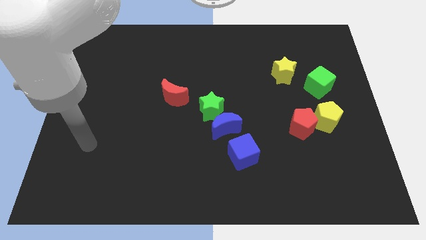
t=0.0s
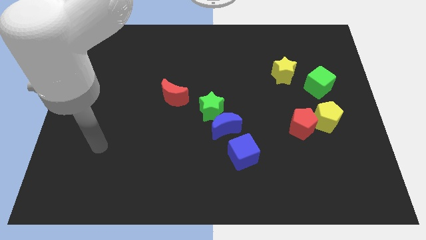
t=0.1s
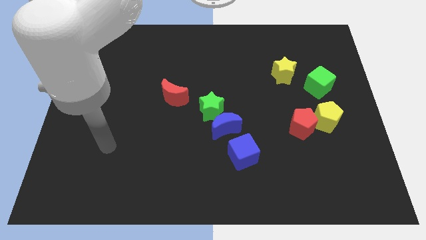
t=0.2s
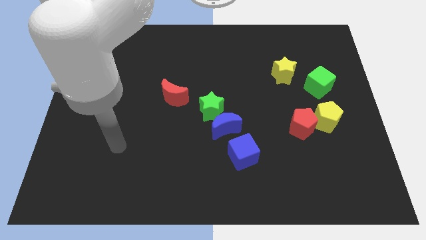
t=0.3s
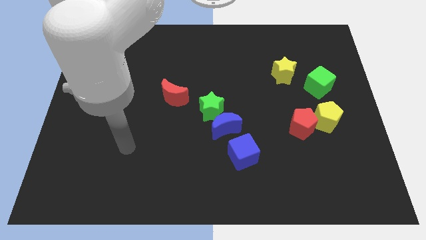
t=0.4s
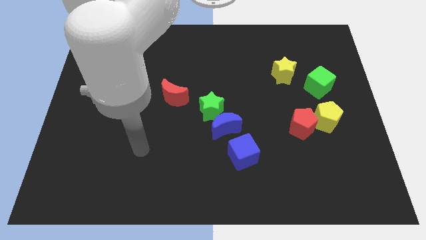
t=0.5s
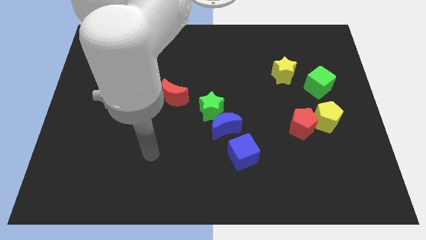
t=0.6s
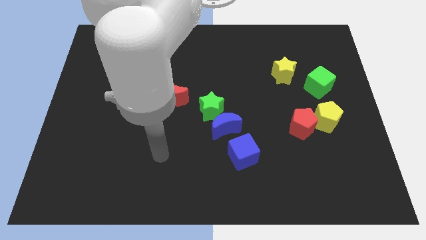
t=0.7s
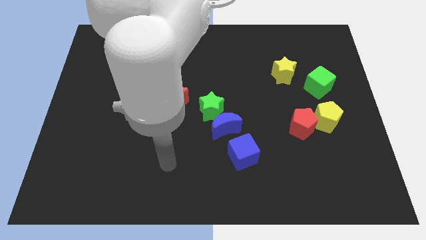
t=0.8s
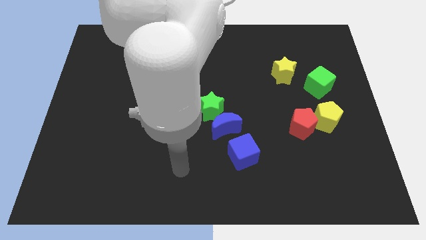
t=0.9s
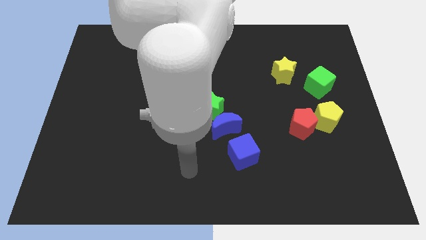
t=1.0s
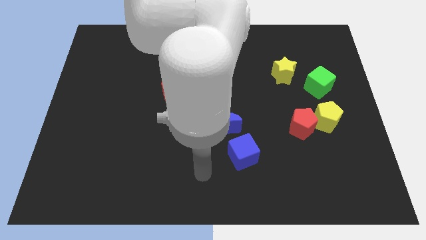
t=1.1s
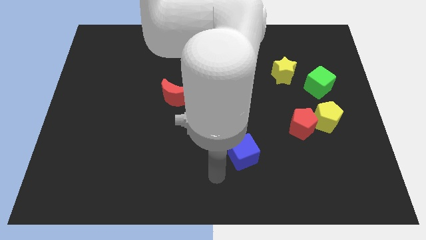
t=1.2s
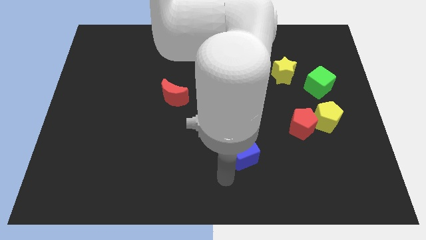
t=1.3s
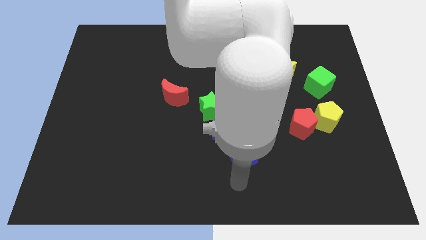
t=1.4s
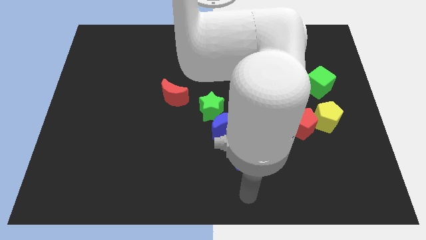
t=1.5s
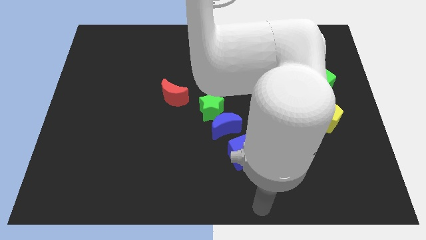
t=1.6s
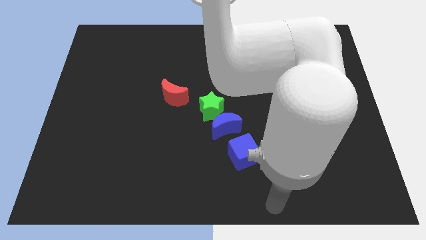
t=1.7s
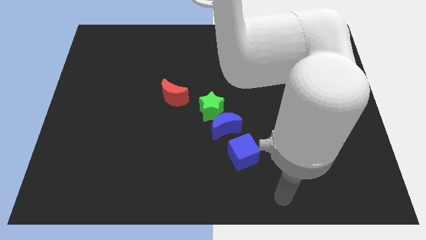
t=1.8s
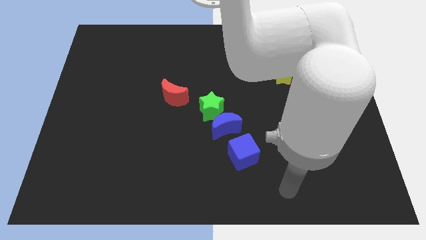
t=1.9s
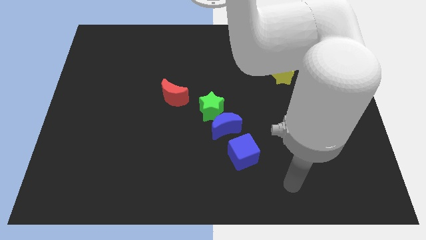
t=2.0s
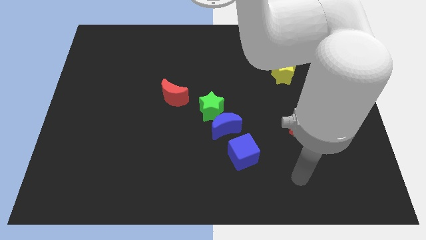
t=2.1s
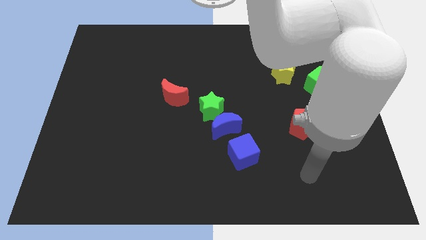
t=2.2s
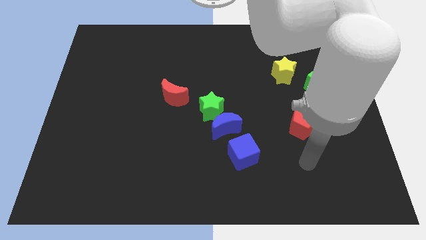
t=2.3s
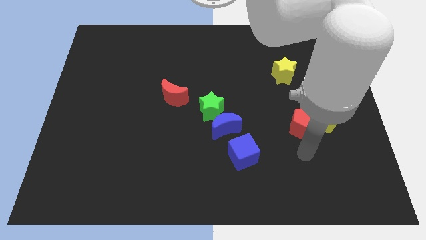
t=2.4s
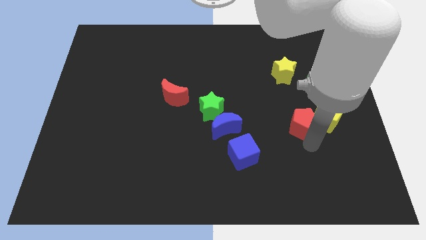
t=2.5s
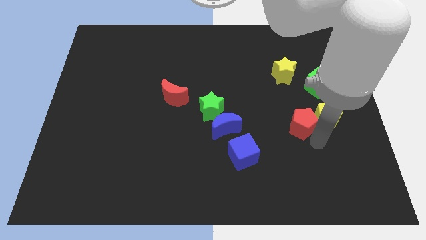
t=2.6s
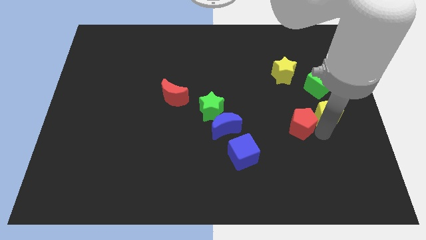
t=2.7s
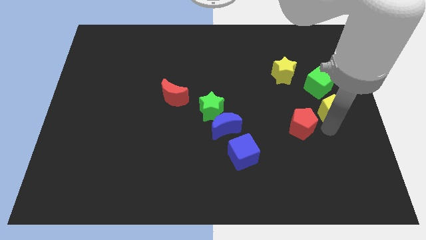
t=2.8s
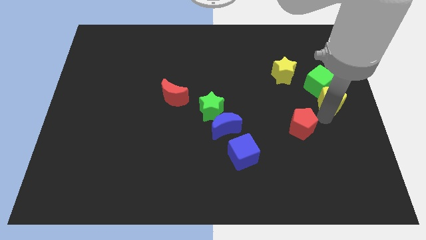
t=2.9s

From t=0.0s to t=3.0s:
separate the red pentagon from the yellow pentagon

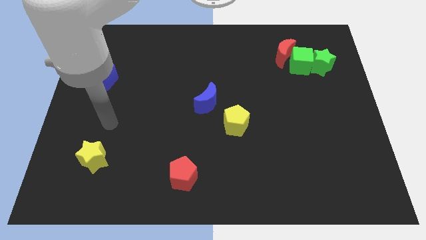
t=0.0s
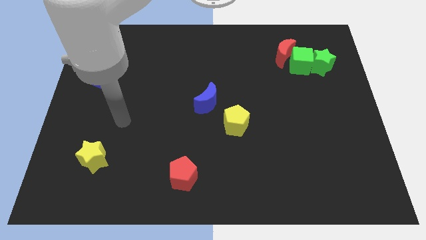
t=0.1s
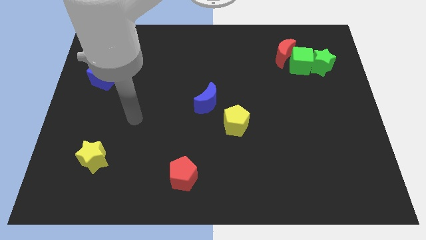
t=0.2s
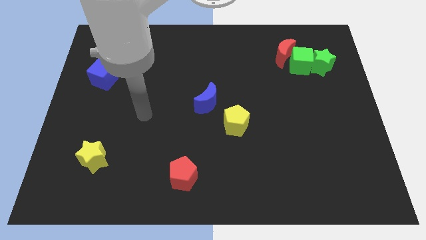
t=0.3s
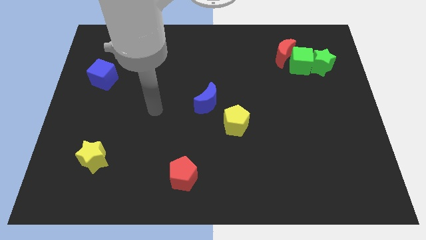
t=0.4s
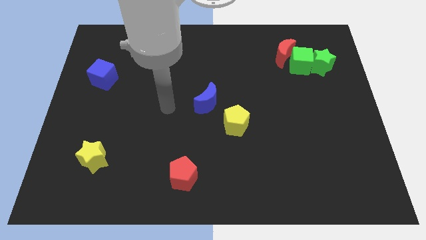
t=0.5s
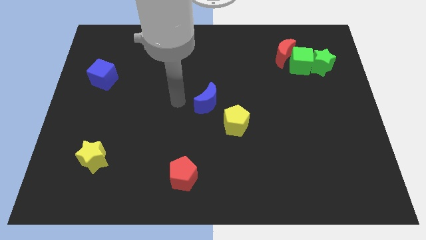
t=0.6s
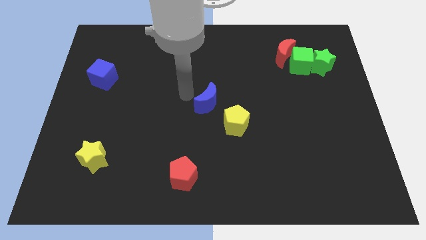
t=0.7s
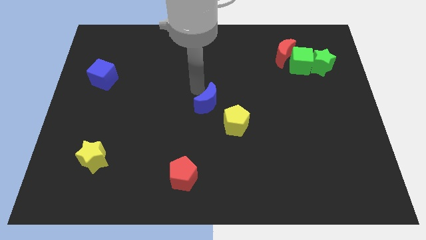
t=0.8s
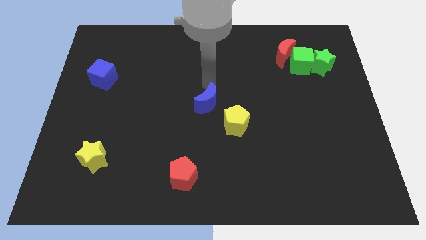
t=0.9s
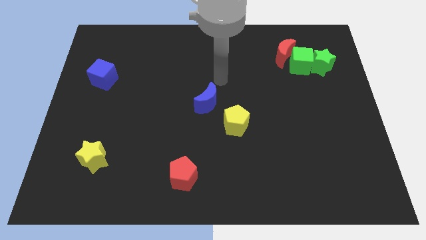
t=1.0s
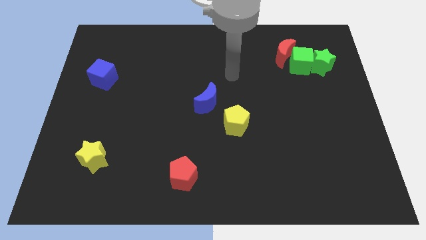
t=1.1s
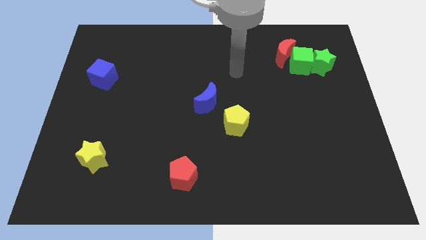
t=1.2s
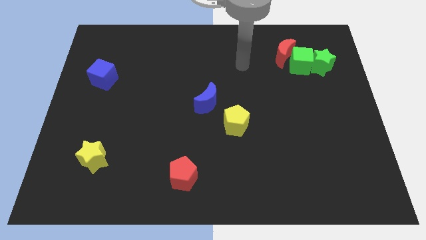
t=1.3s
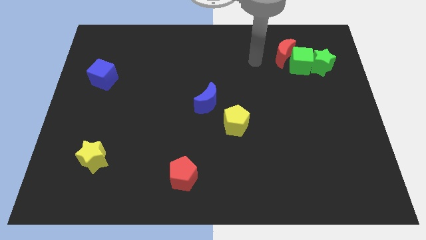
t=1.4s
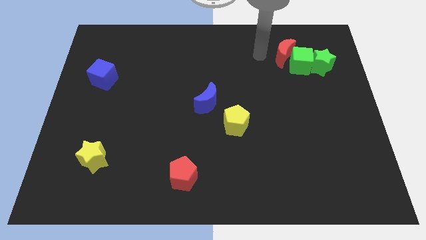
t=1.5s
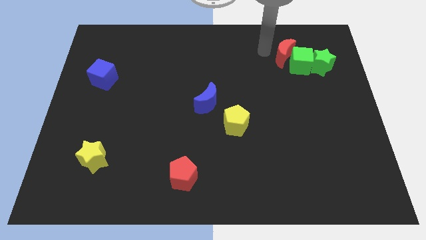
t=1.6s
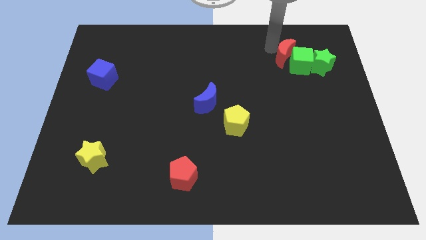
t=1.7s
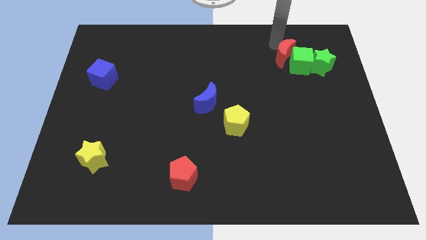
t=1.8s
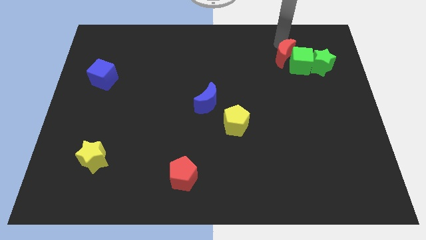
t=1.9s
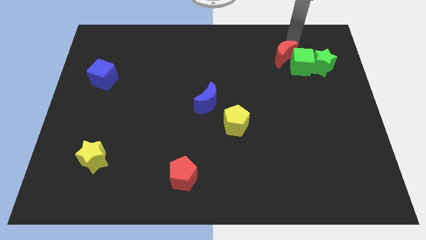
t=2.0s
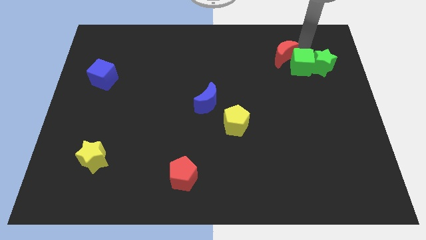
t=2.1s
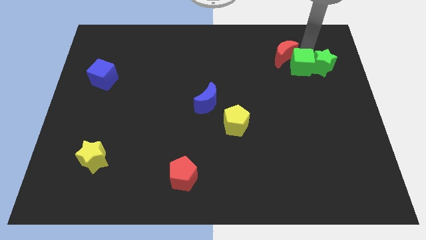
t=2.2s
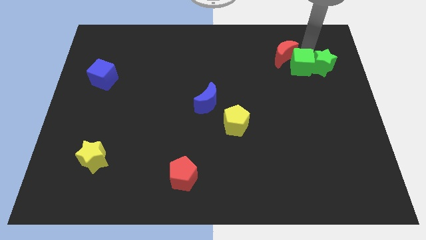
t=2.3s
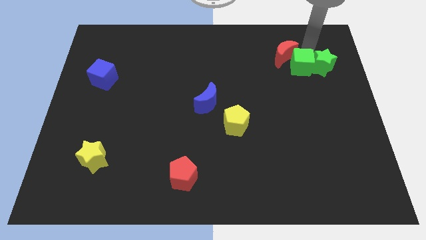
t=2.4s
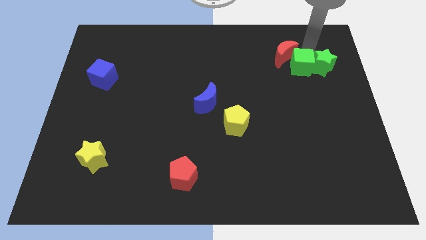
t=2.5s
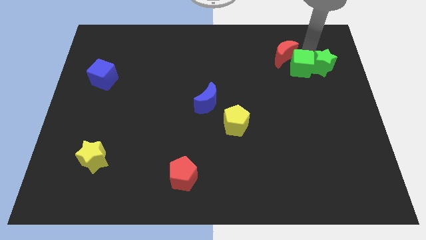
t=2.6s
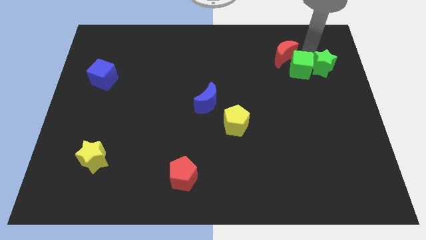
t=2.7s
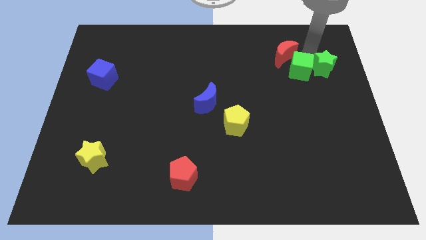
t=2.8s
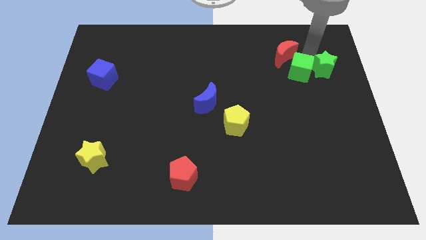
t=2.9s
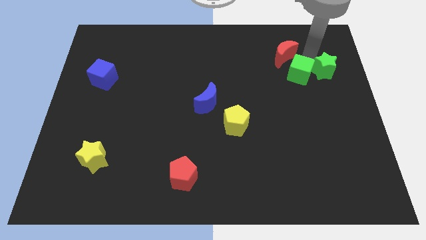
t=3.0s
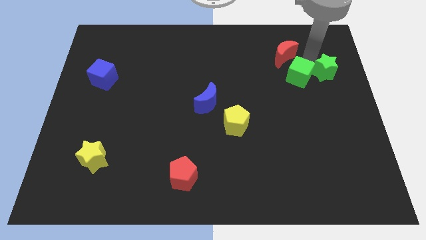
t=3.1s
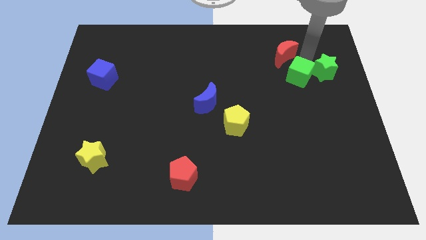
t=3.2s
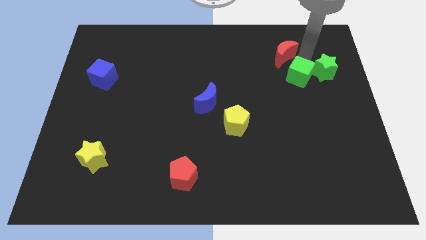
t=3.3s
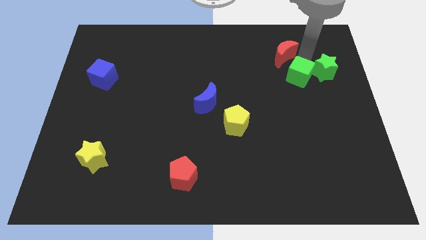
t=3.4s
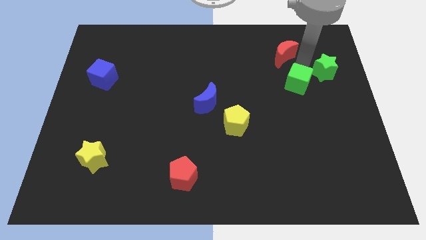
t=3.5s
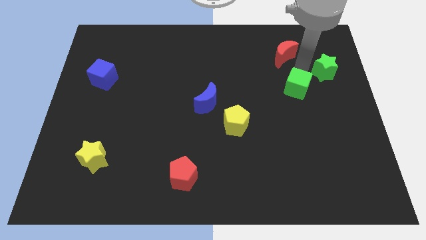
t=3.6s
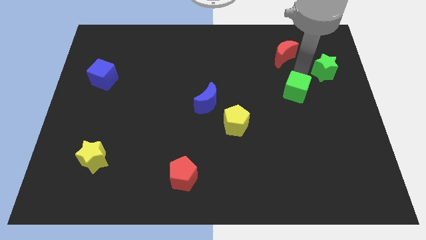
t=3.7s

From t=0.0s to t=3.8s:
move the green cube away from the red moon and green star

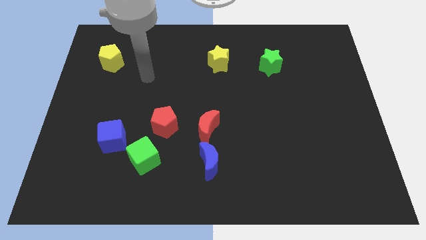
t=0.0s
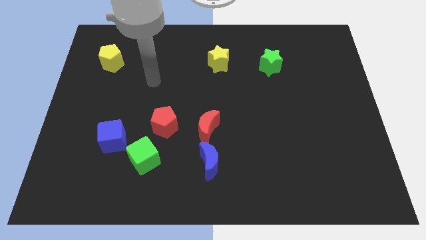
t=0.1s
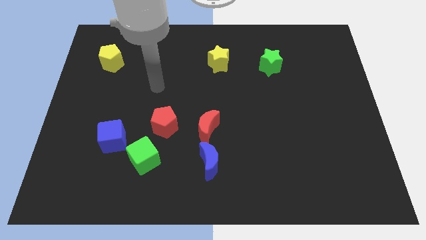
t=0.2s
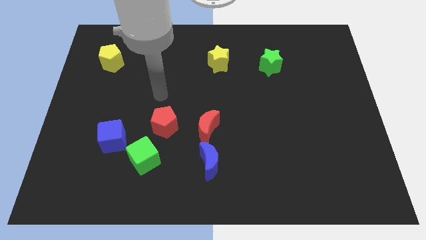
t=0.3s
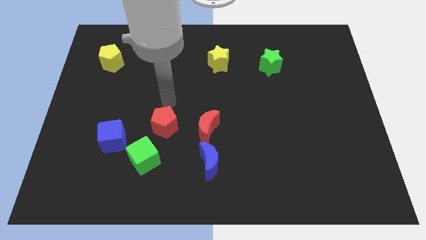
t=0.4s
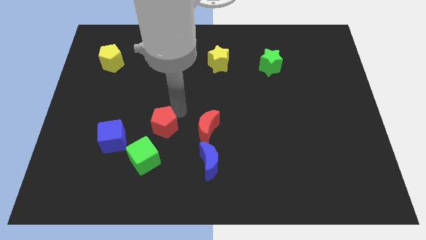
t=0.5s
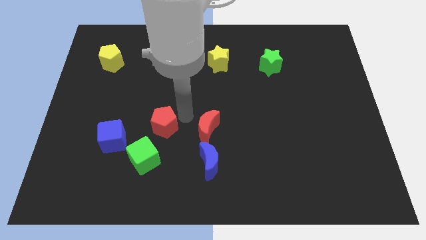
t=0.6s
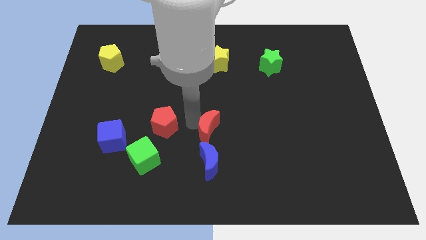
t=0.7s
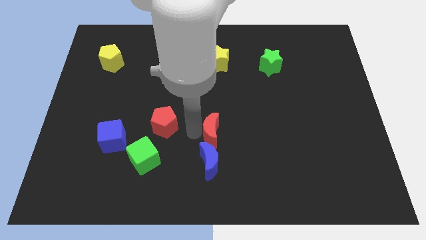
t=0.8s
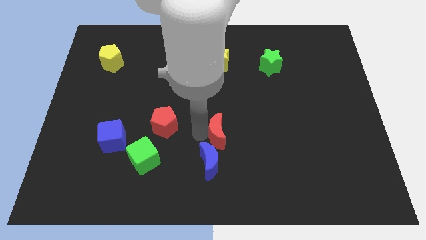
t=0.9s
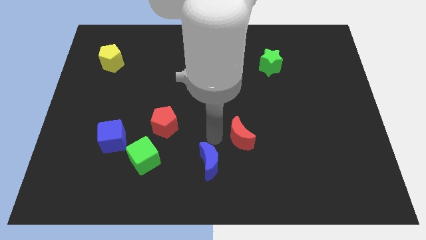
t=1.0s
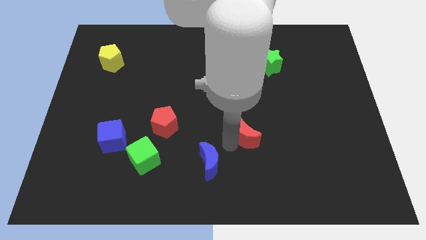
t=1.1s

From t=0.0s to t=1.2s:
move the blue moon away from the red moon

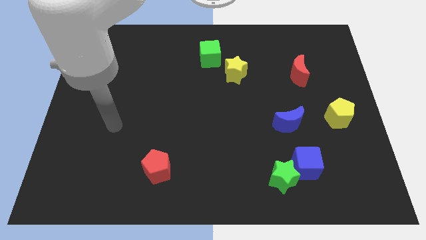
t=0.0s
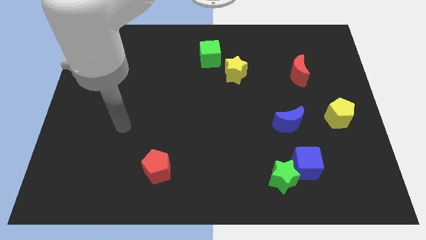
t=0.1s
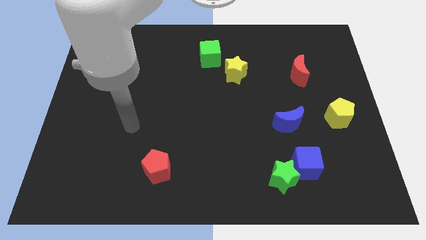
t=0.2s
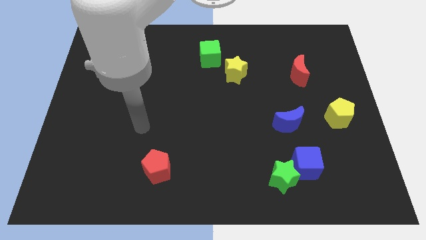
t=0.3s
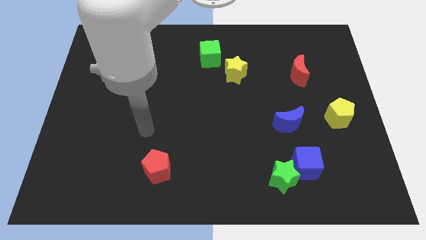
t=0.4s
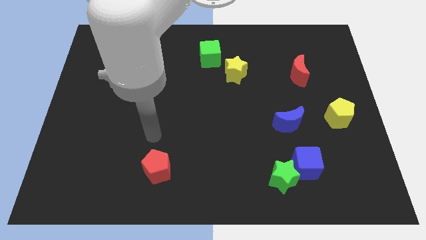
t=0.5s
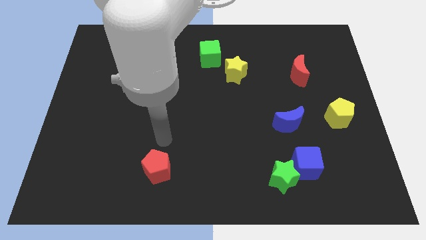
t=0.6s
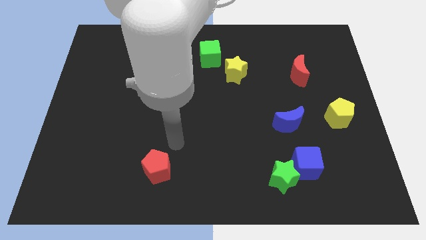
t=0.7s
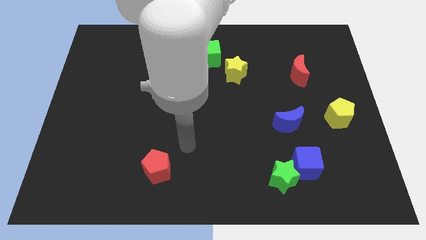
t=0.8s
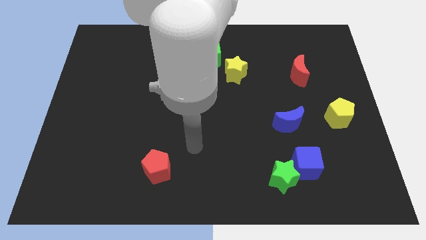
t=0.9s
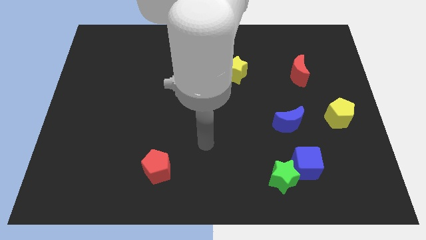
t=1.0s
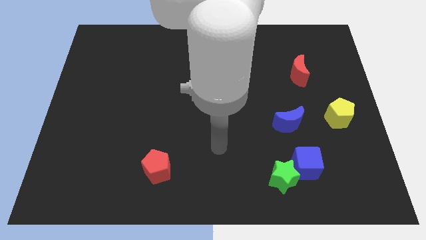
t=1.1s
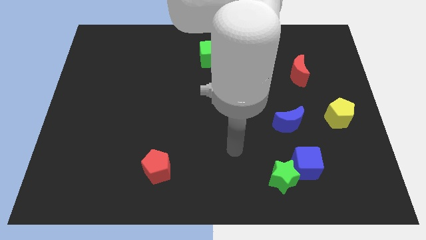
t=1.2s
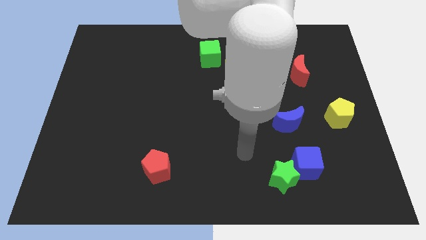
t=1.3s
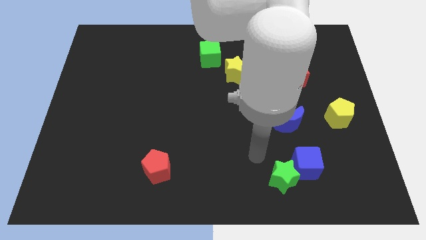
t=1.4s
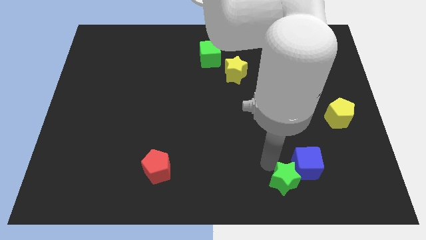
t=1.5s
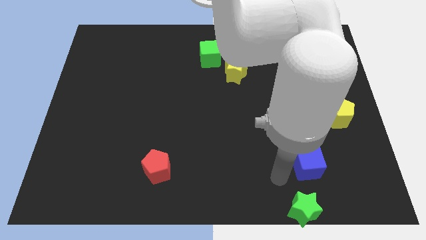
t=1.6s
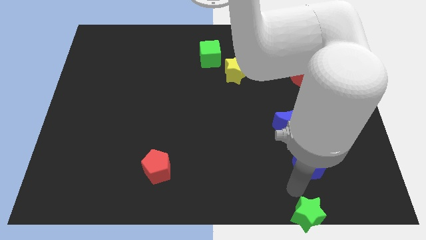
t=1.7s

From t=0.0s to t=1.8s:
move the blue cube away from the green star
